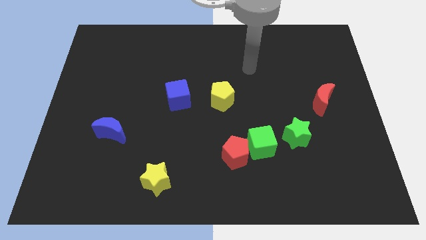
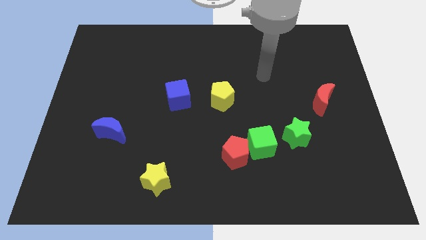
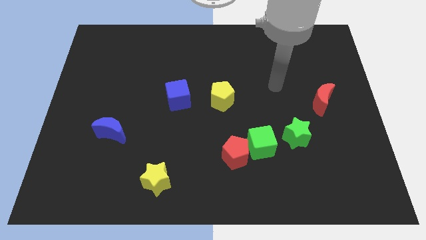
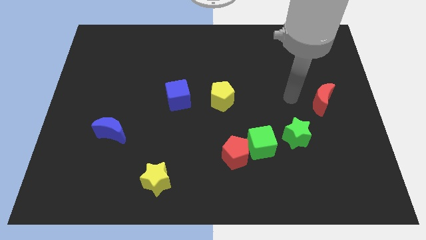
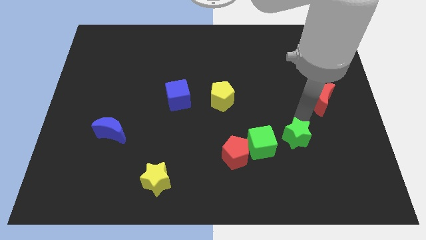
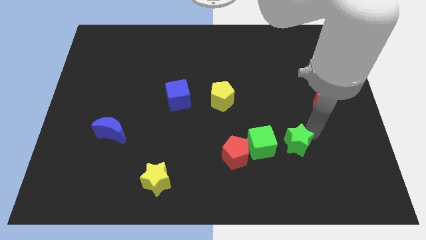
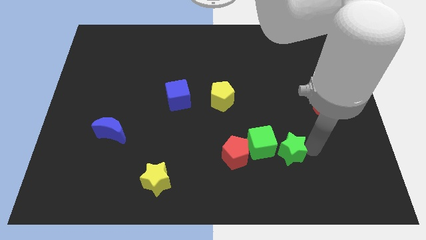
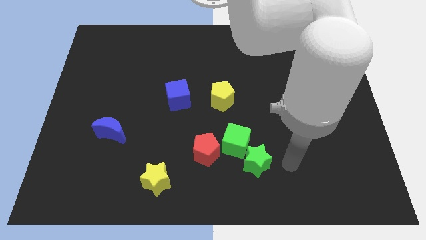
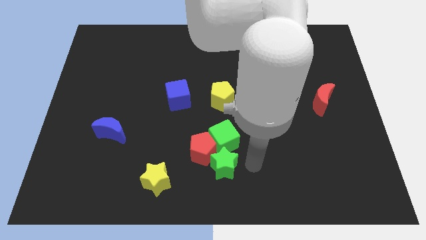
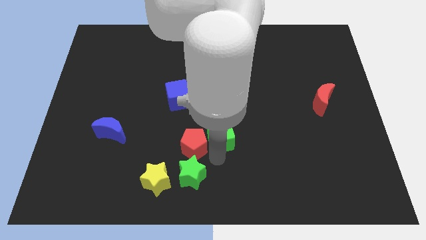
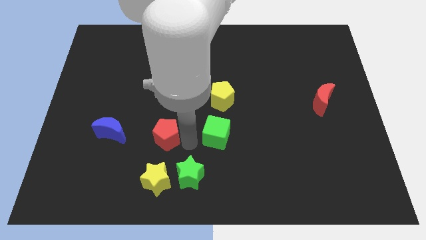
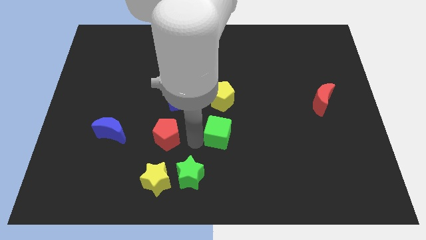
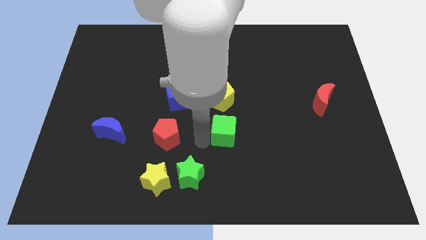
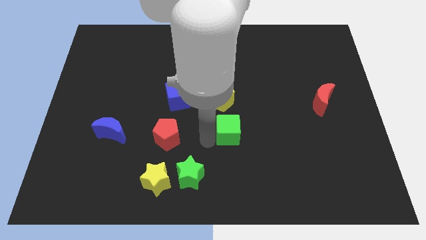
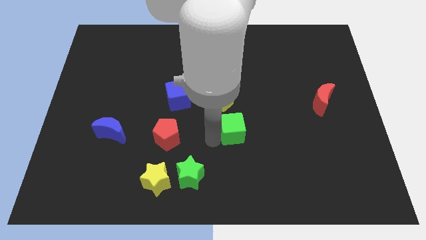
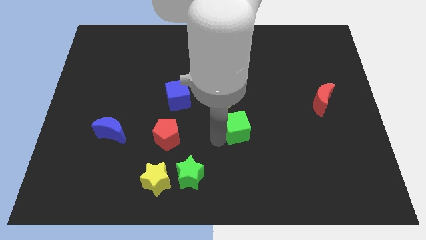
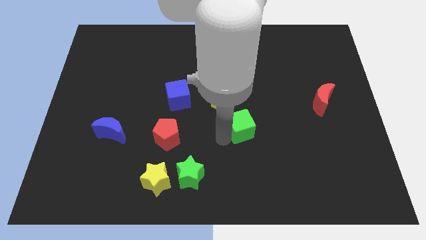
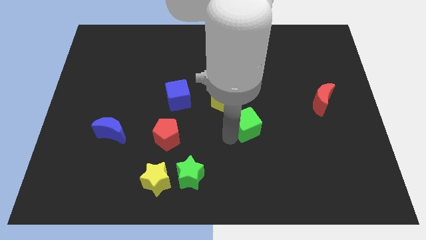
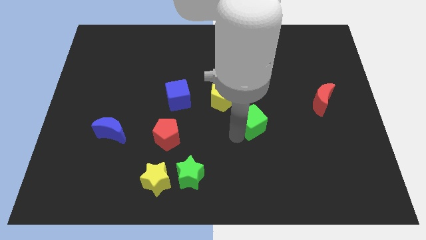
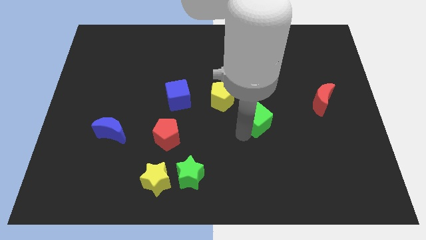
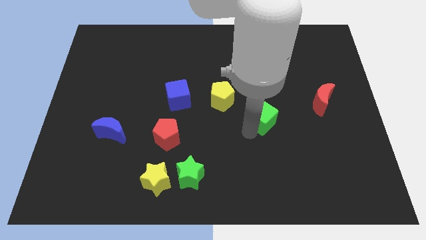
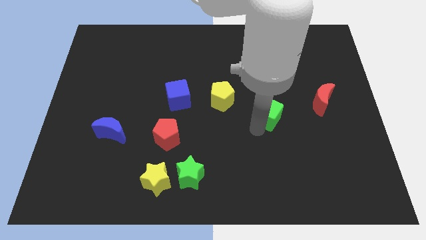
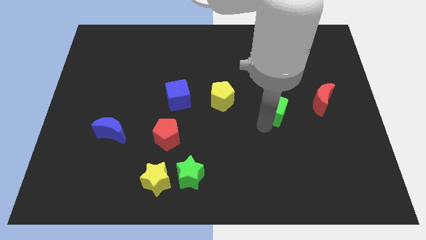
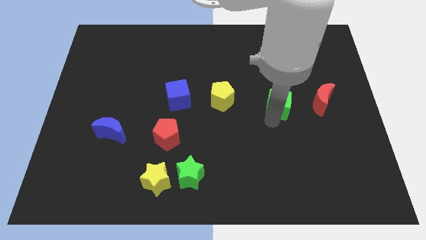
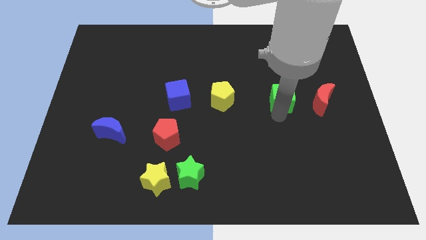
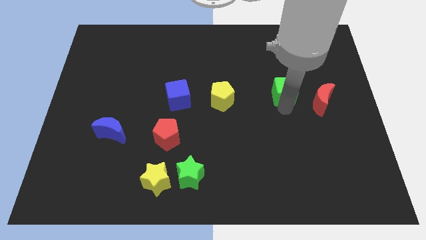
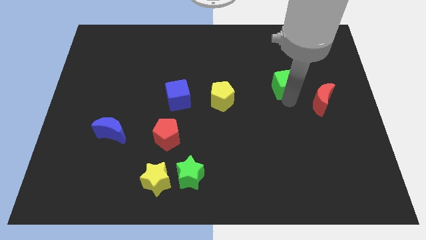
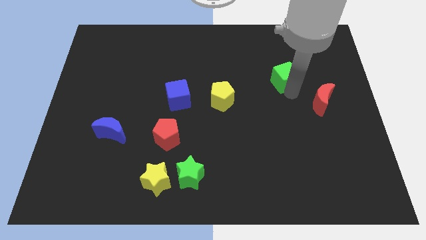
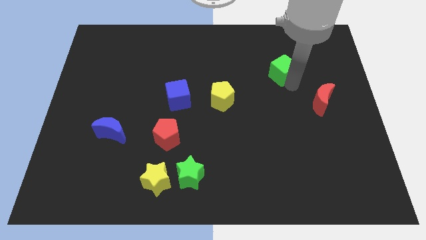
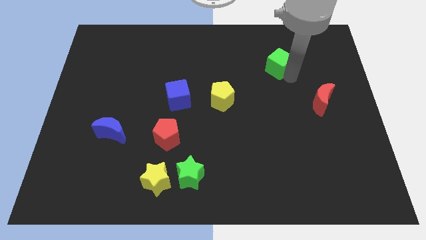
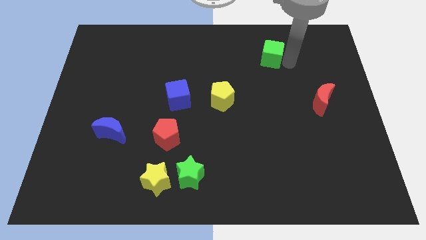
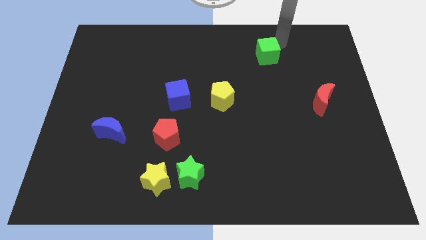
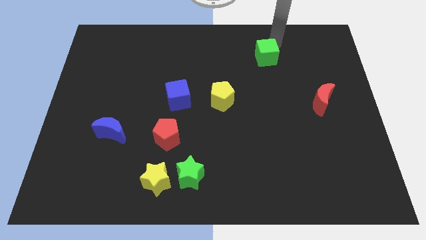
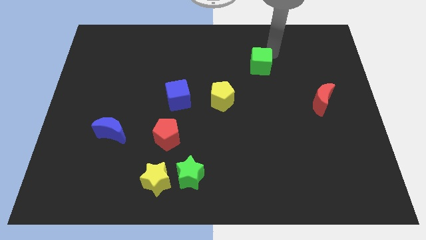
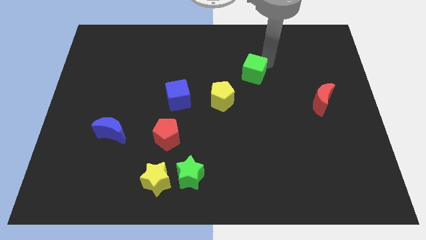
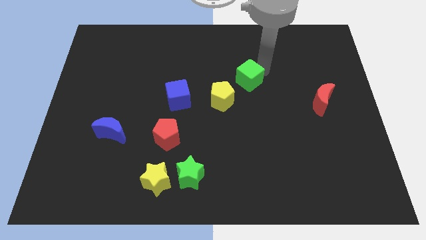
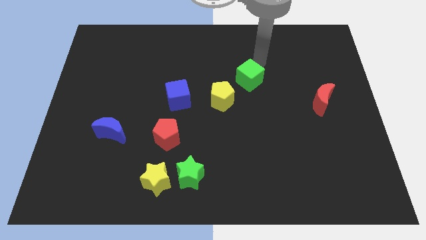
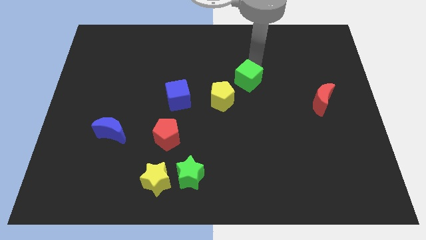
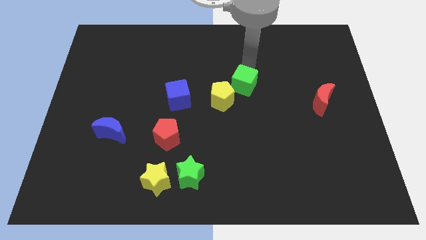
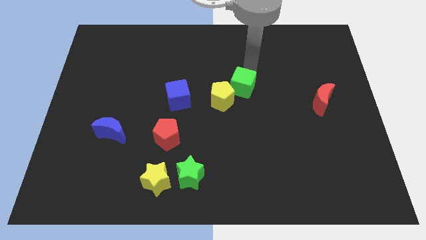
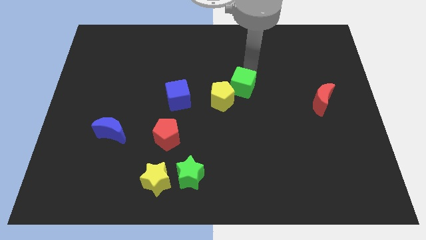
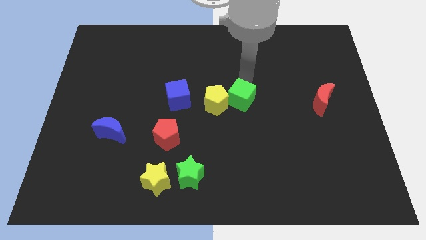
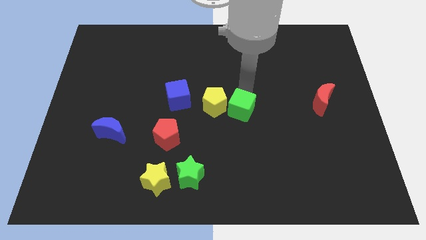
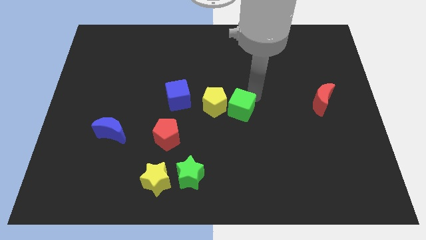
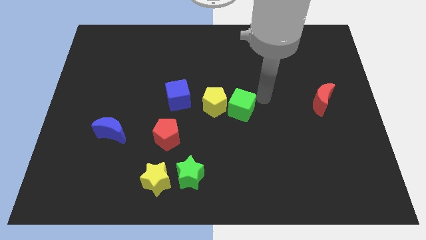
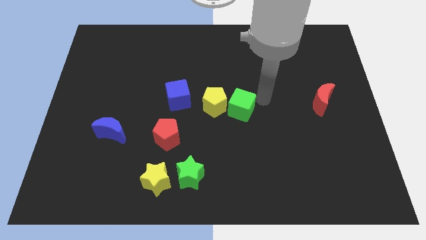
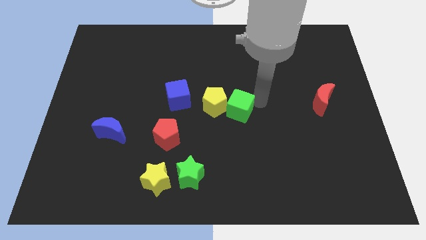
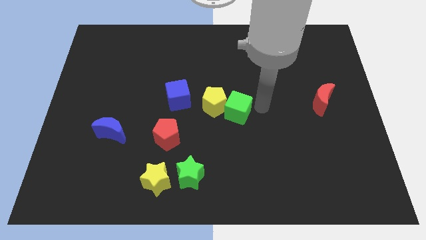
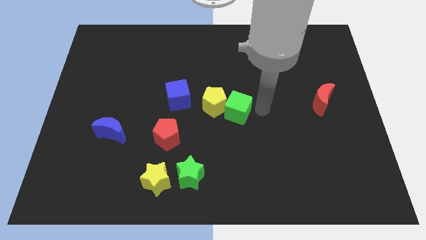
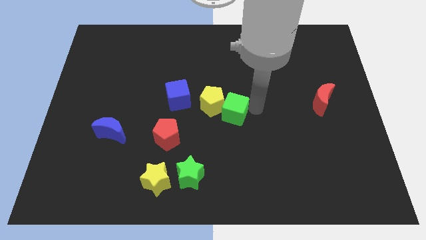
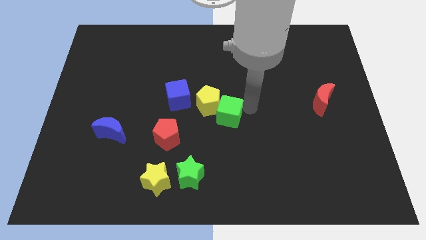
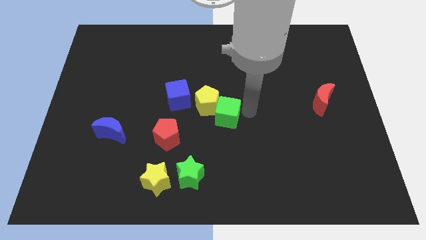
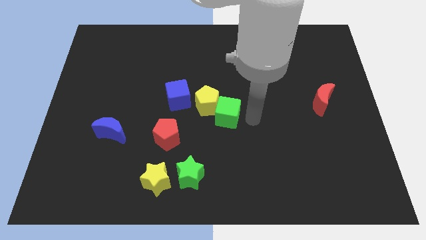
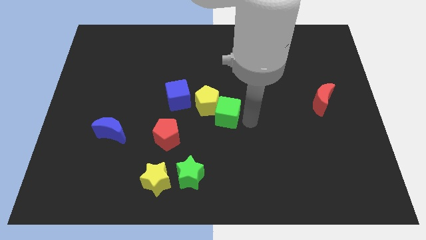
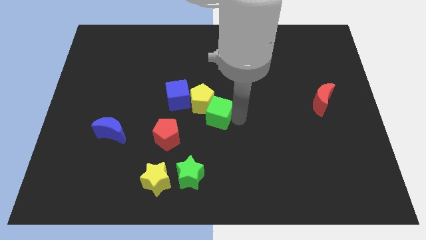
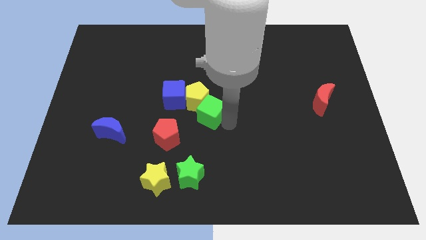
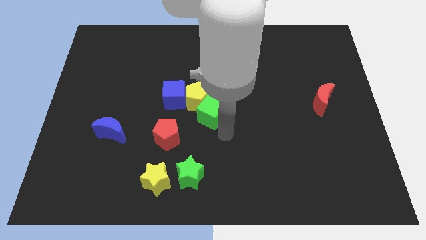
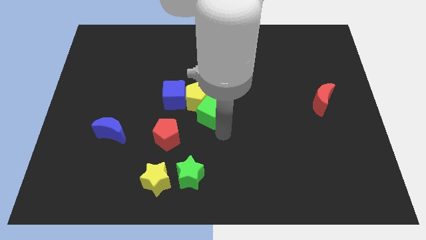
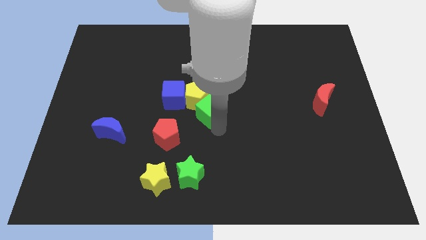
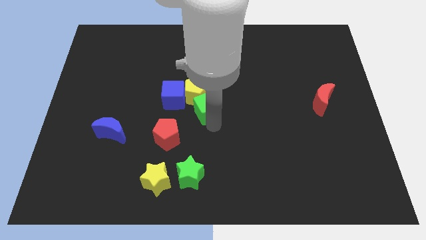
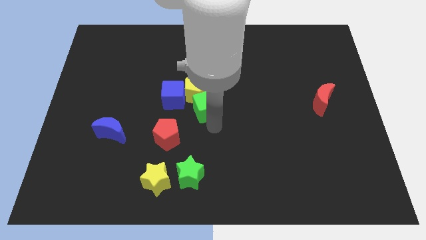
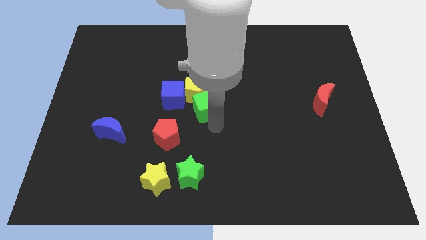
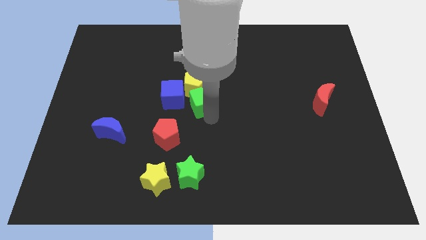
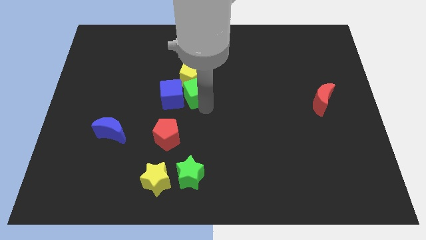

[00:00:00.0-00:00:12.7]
slide the green cube up and then left

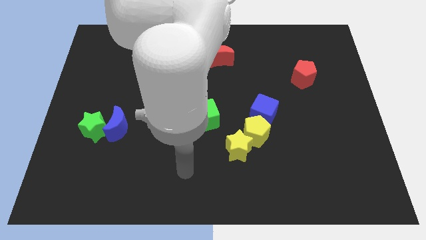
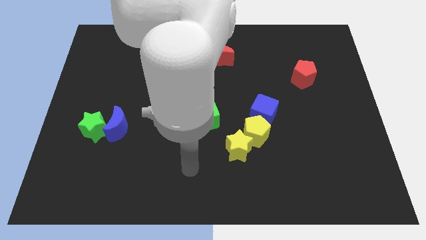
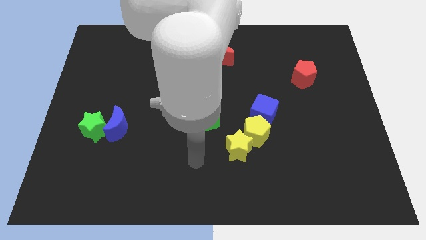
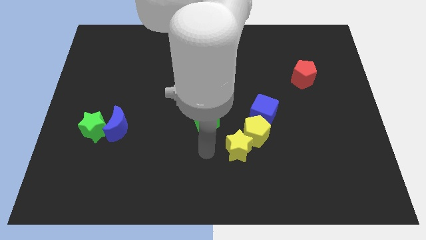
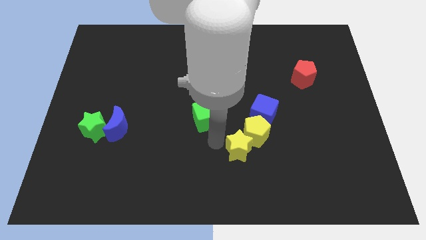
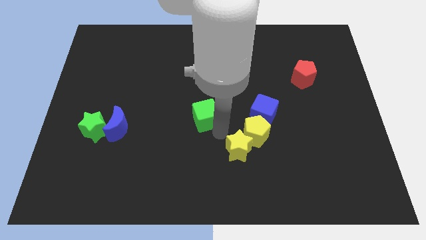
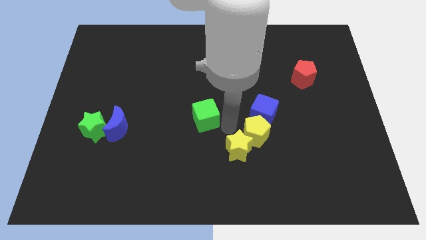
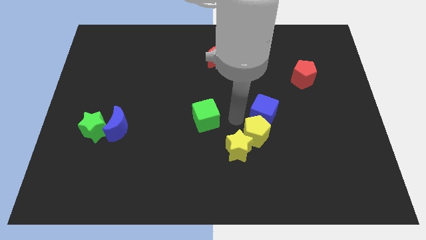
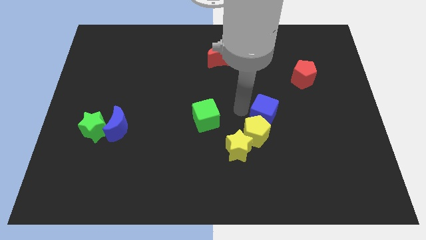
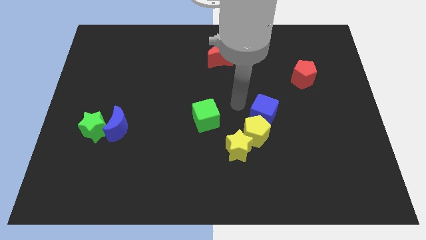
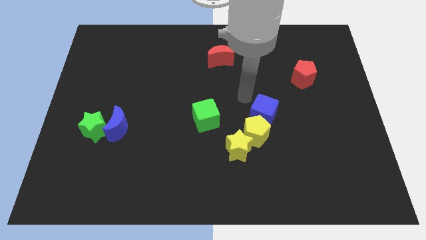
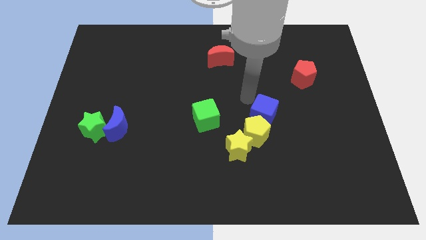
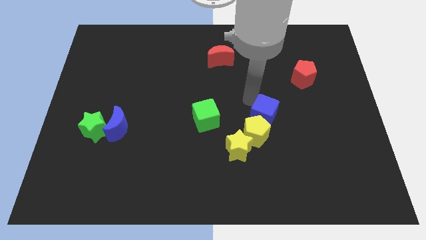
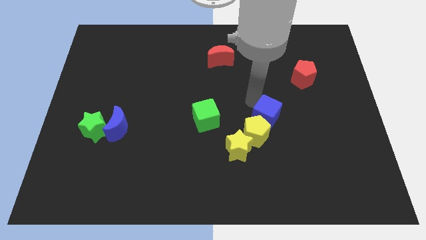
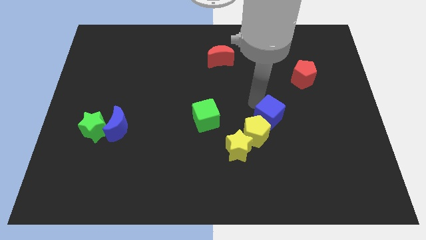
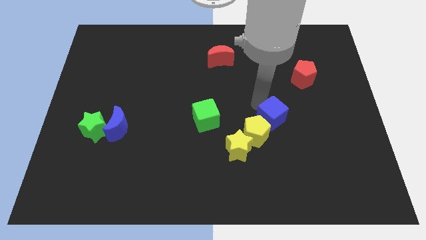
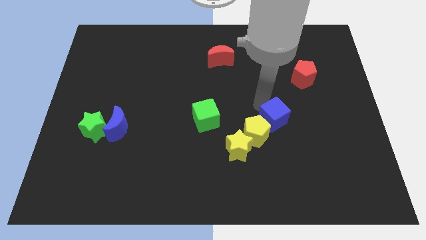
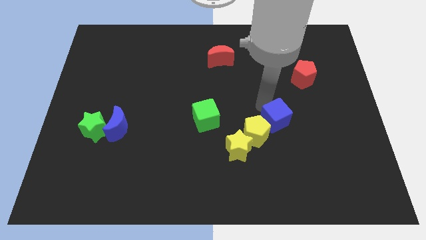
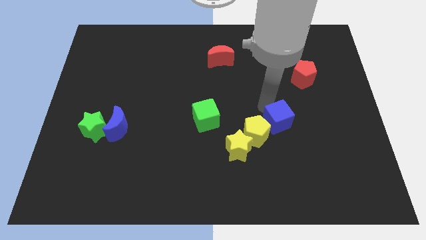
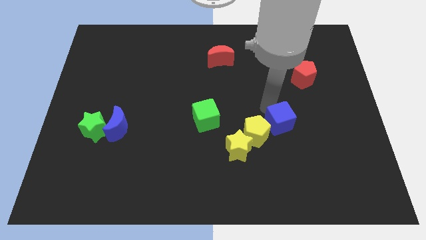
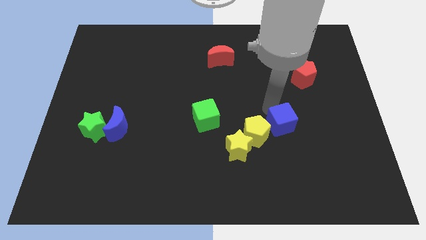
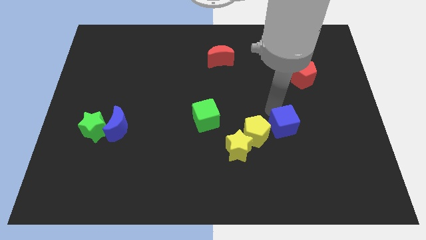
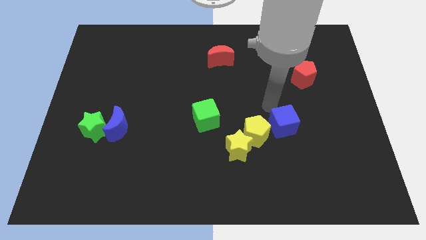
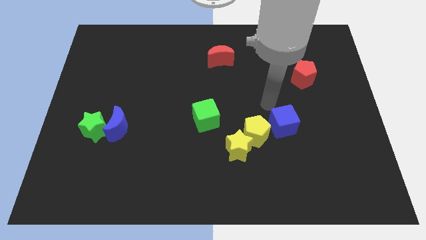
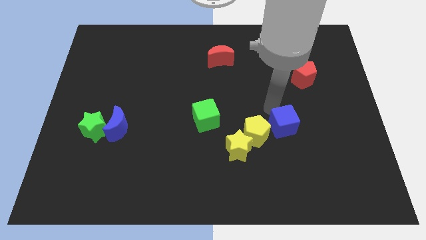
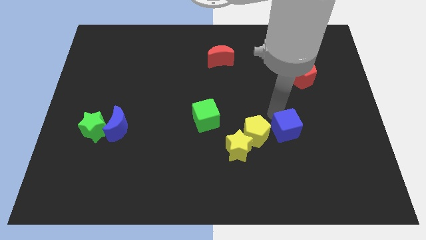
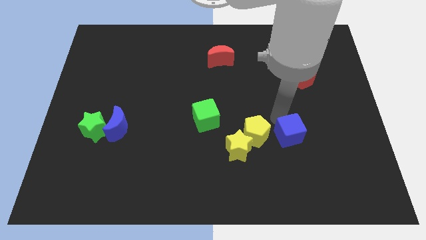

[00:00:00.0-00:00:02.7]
slide the blue cube a bit down and then right
